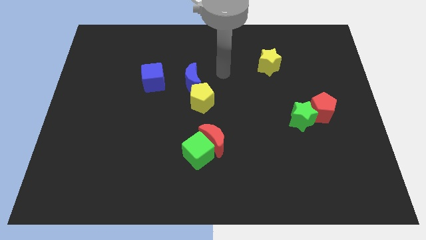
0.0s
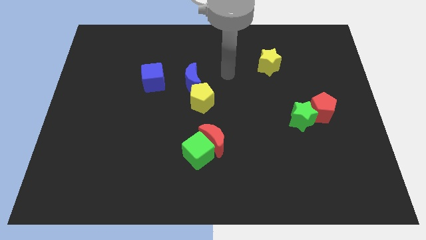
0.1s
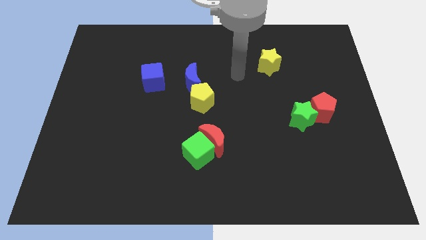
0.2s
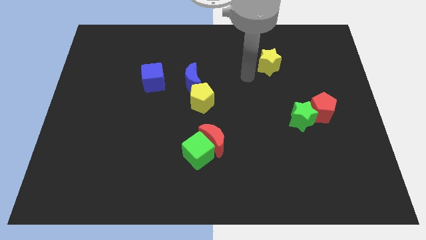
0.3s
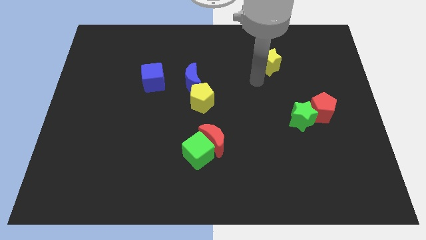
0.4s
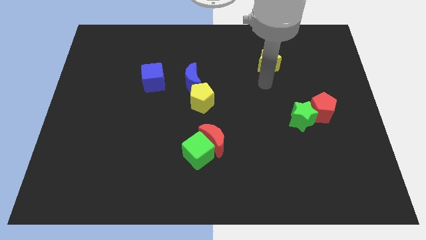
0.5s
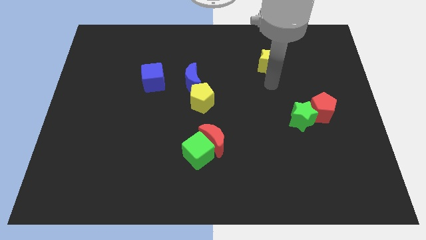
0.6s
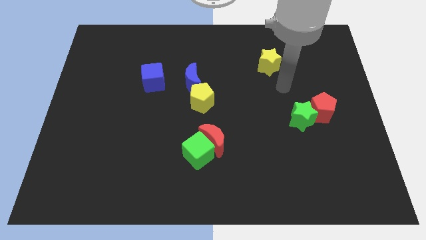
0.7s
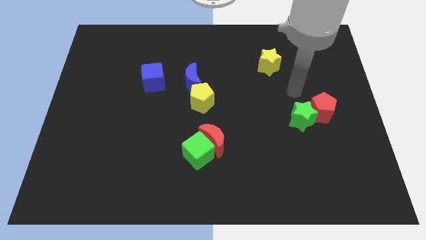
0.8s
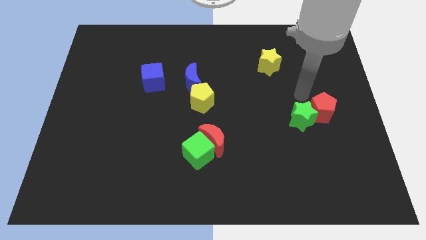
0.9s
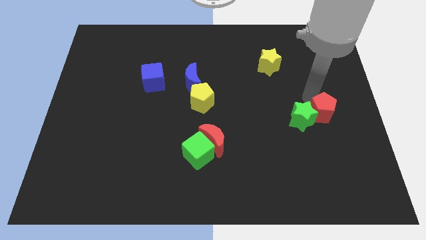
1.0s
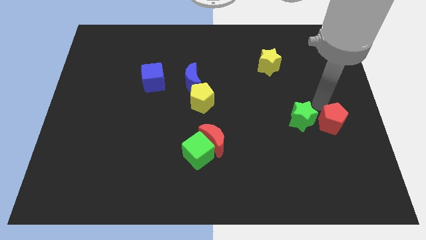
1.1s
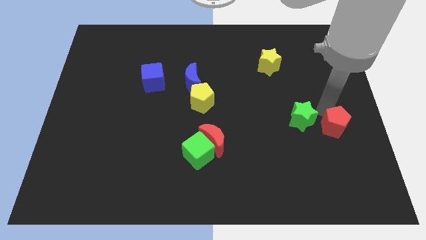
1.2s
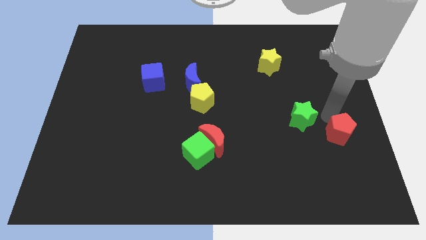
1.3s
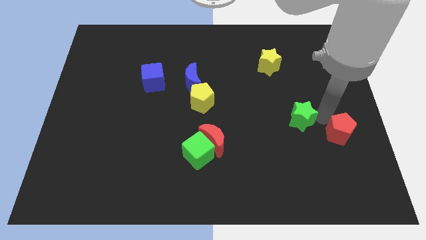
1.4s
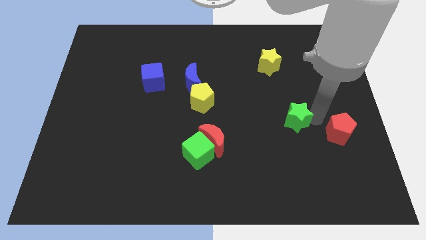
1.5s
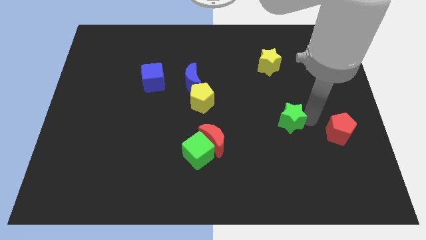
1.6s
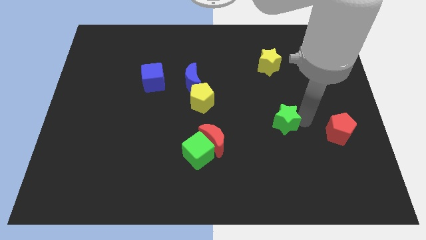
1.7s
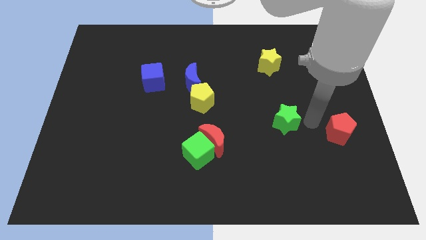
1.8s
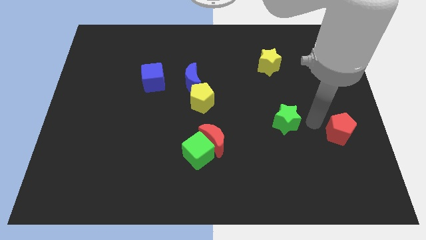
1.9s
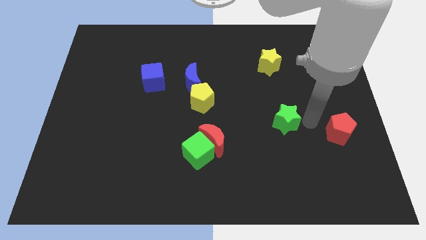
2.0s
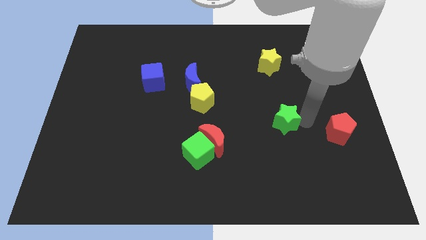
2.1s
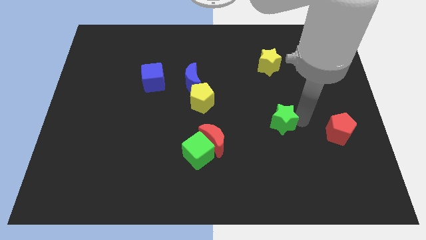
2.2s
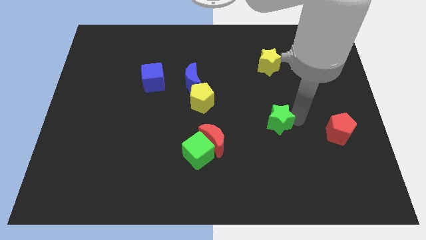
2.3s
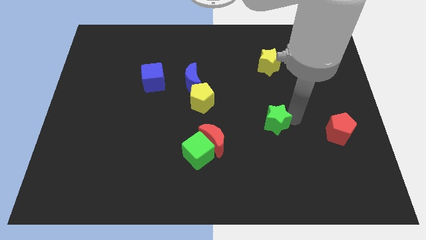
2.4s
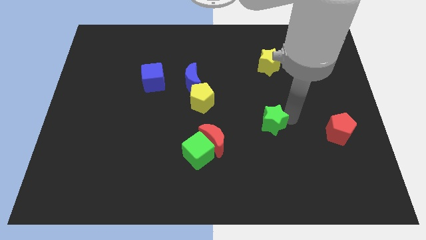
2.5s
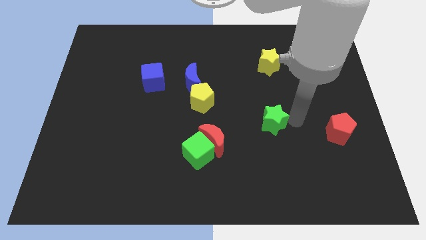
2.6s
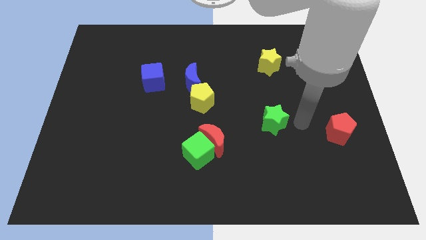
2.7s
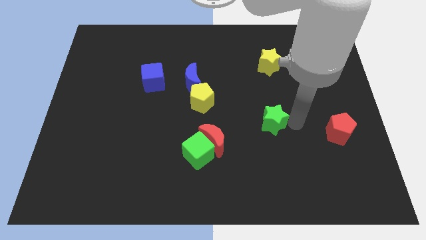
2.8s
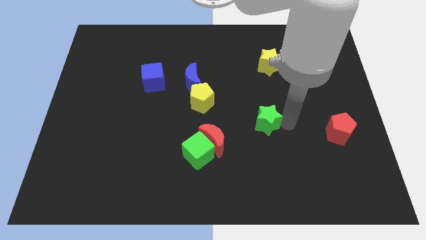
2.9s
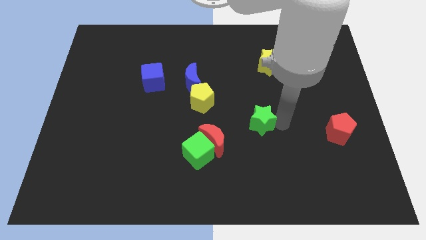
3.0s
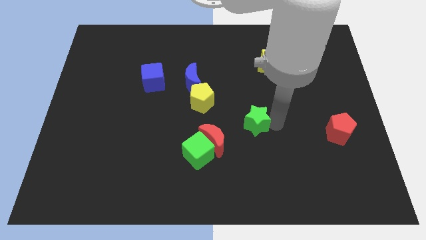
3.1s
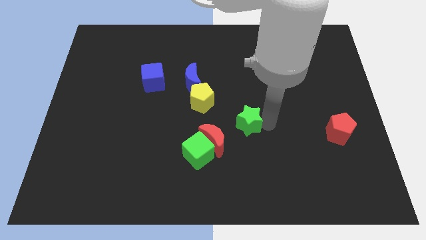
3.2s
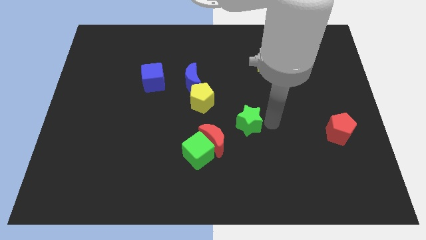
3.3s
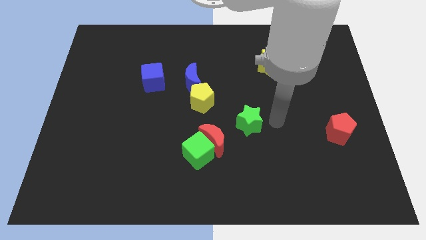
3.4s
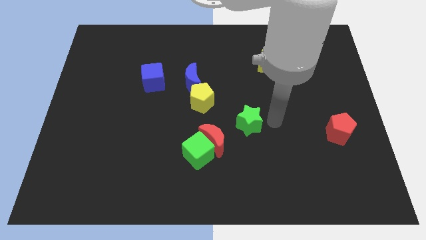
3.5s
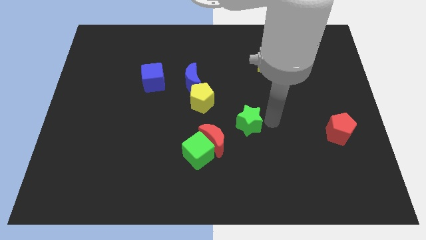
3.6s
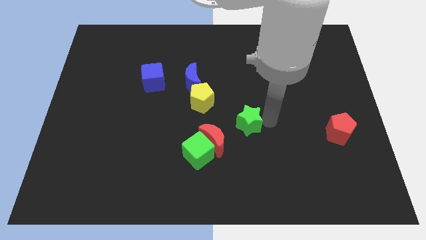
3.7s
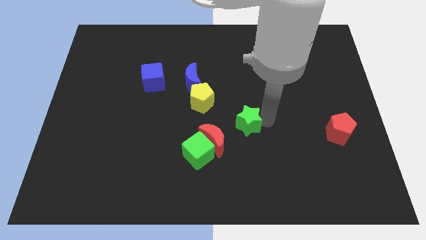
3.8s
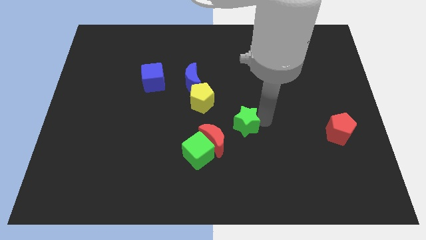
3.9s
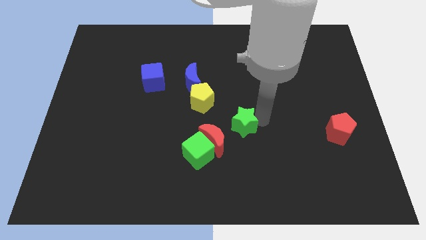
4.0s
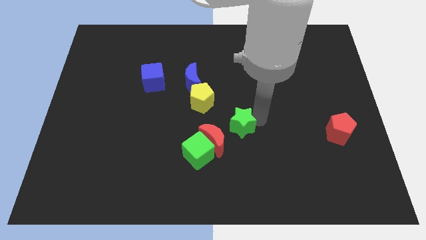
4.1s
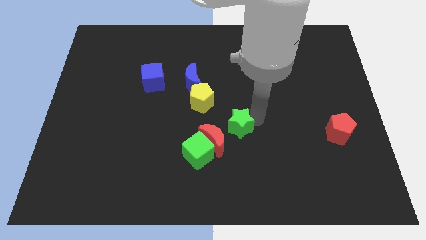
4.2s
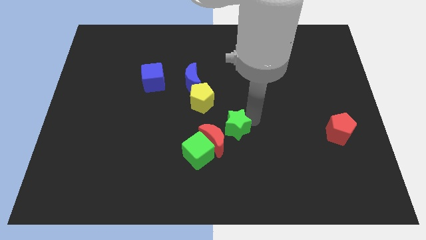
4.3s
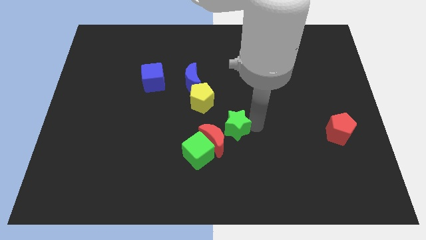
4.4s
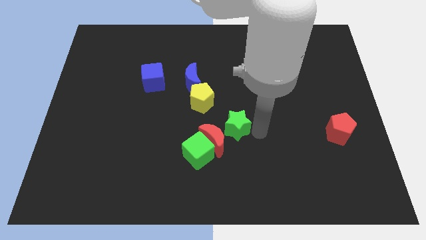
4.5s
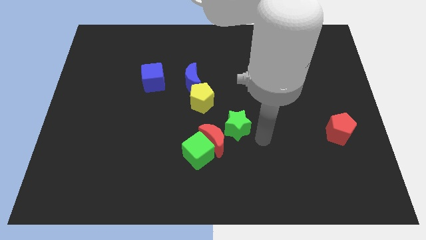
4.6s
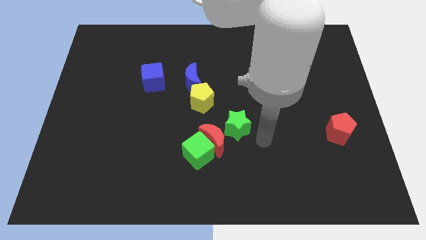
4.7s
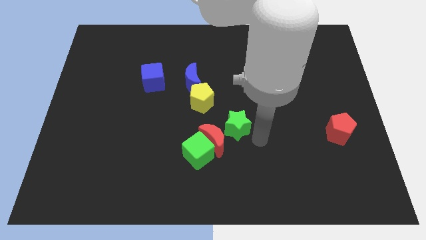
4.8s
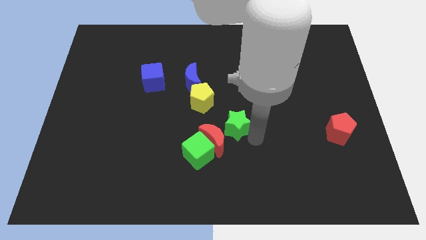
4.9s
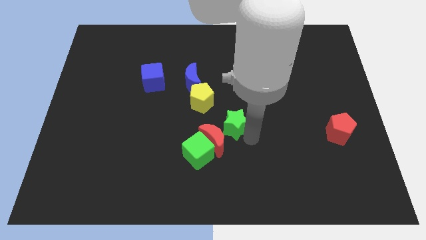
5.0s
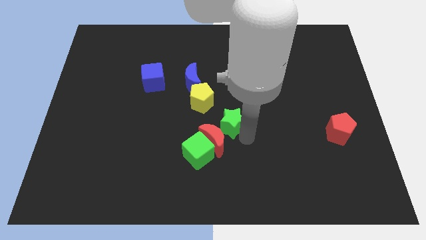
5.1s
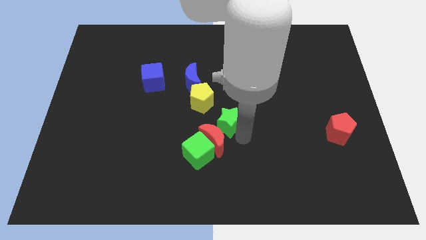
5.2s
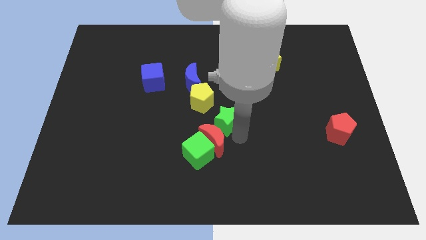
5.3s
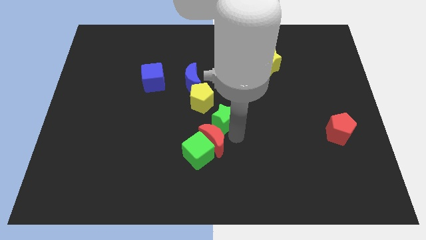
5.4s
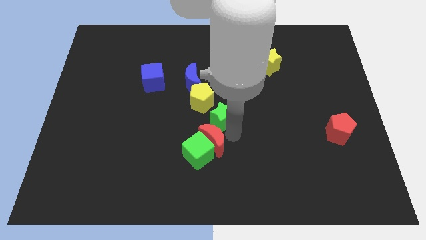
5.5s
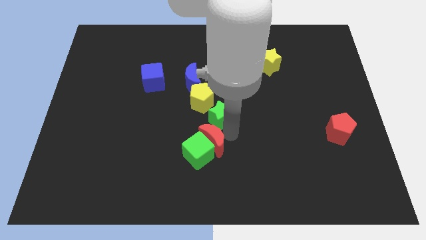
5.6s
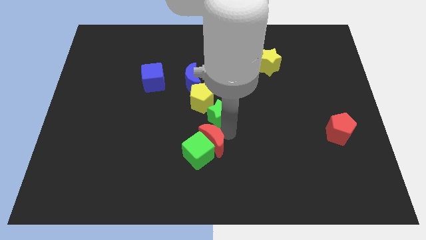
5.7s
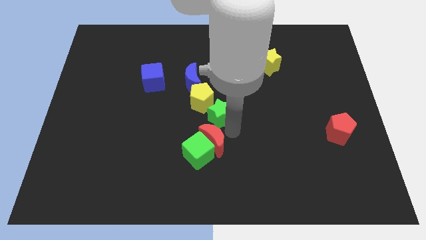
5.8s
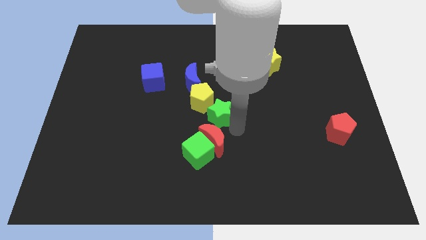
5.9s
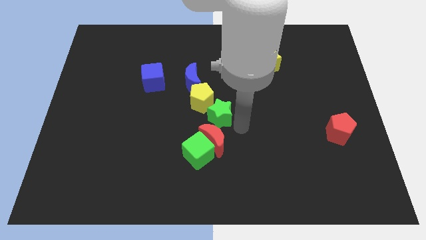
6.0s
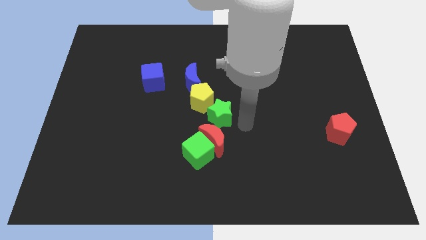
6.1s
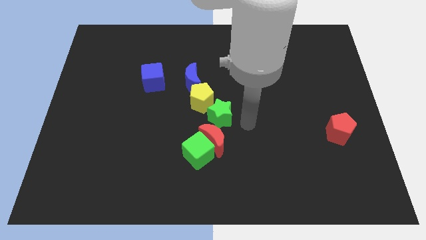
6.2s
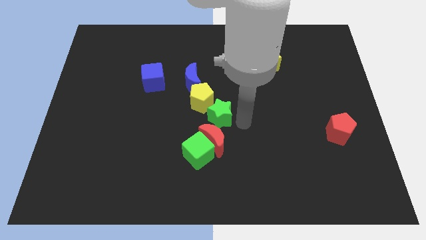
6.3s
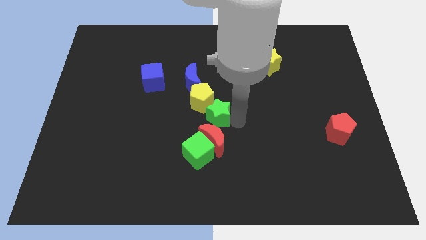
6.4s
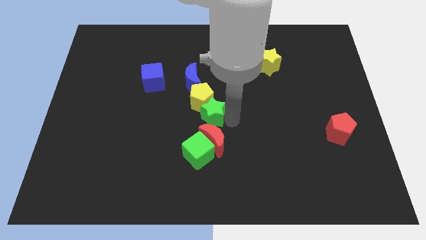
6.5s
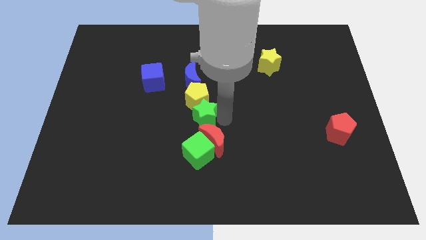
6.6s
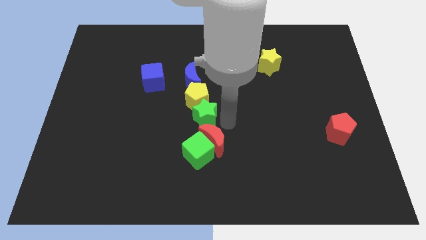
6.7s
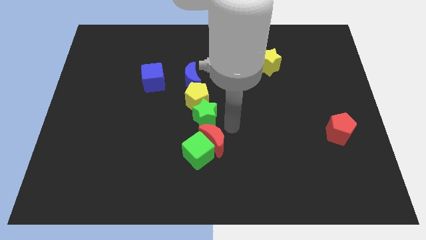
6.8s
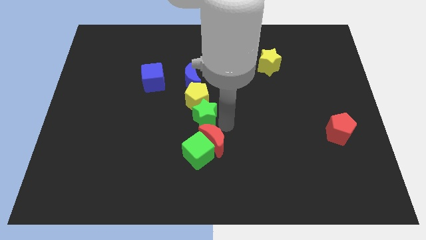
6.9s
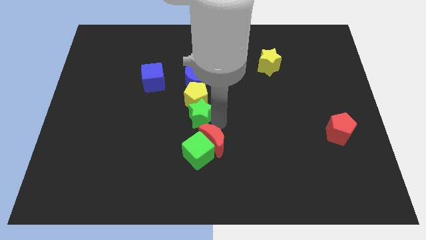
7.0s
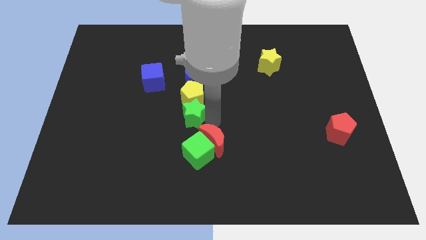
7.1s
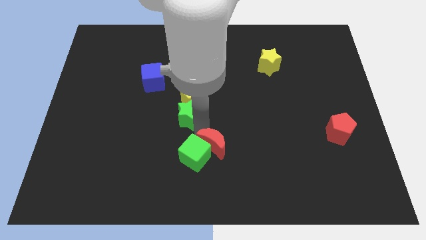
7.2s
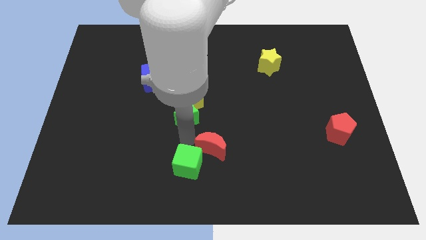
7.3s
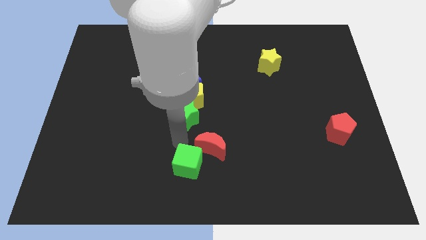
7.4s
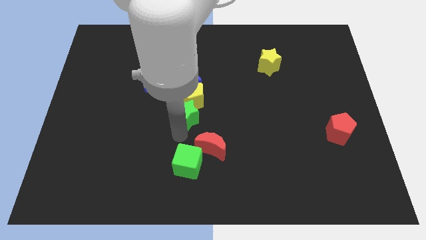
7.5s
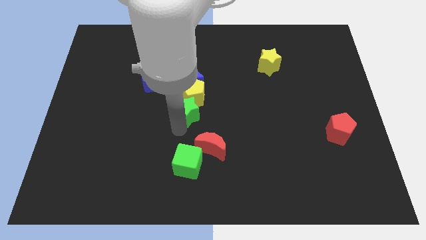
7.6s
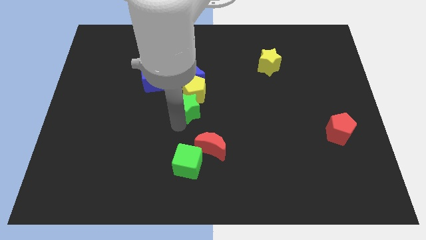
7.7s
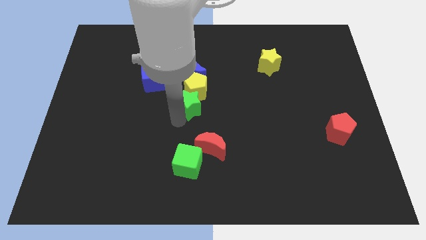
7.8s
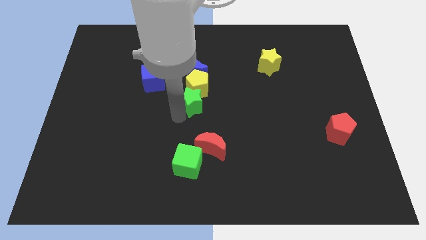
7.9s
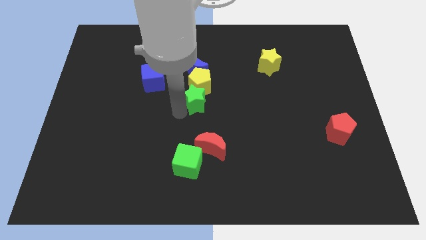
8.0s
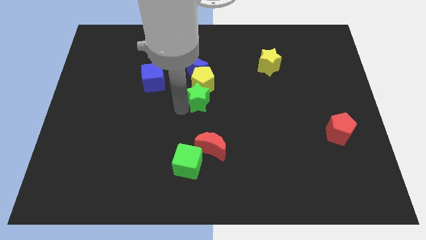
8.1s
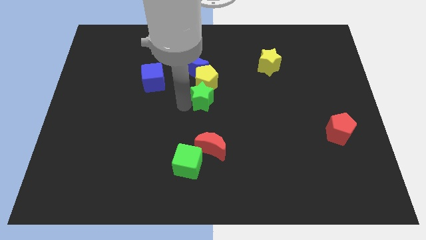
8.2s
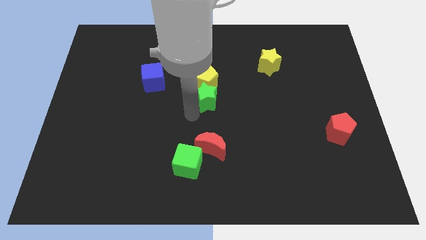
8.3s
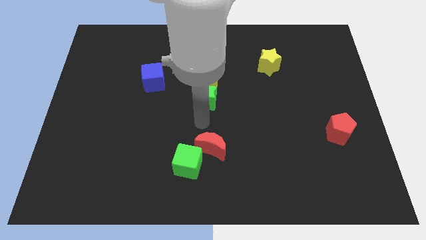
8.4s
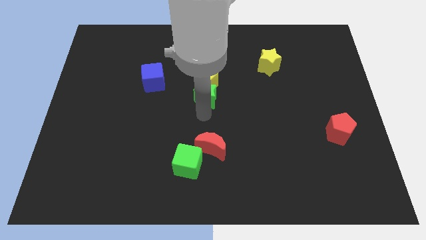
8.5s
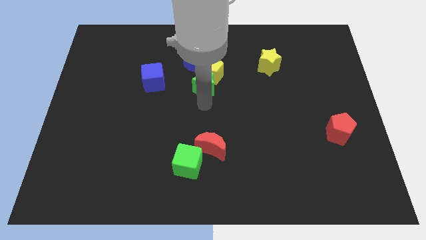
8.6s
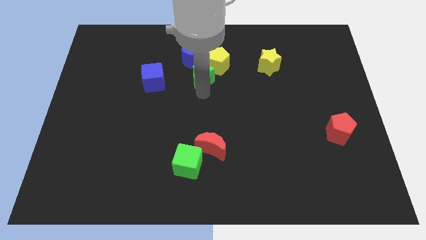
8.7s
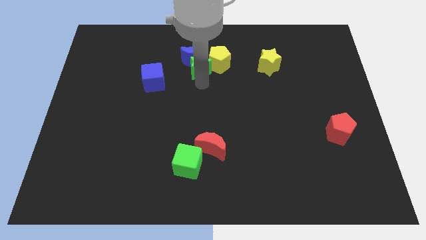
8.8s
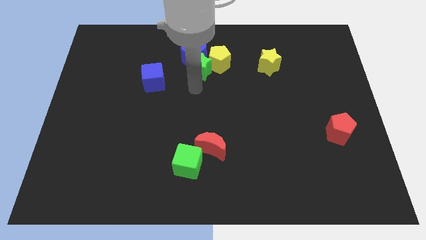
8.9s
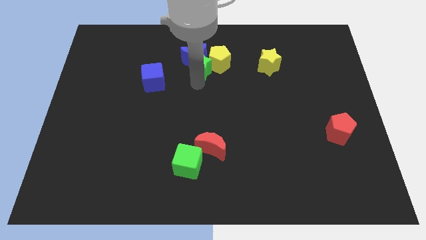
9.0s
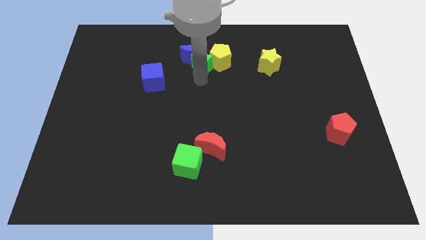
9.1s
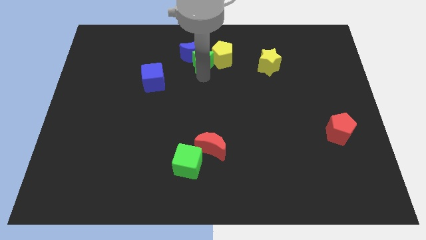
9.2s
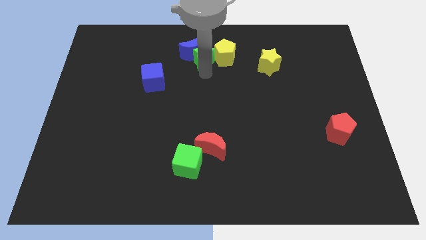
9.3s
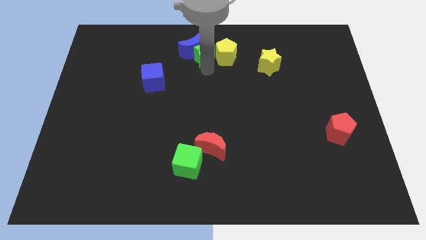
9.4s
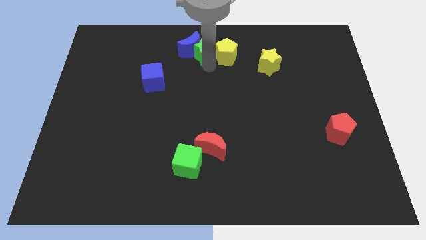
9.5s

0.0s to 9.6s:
put the green star to the towards your base
